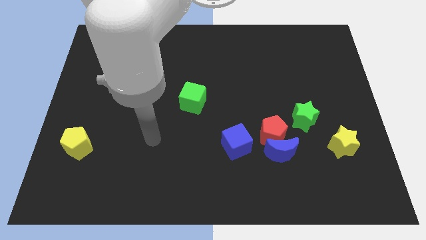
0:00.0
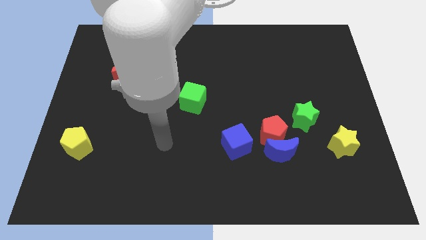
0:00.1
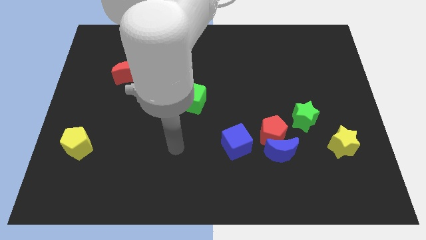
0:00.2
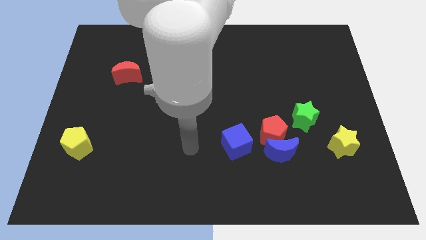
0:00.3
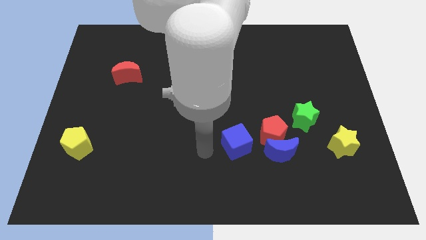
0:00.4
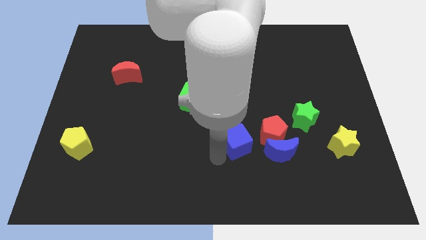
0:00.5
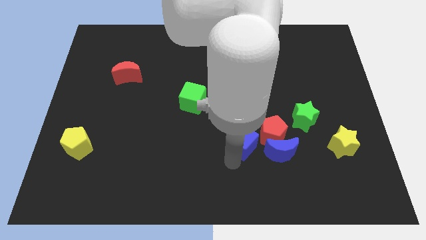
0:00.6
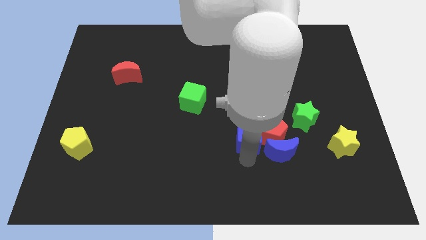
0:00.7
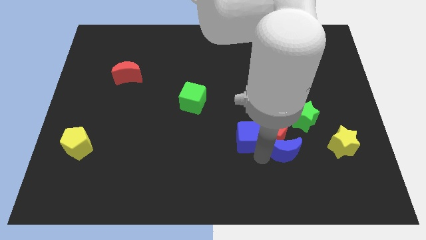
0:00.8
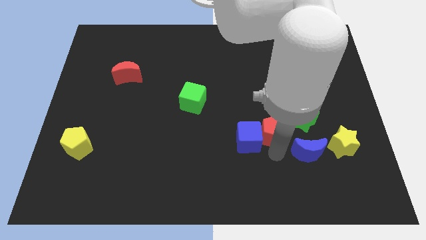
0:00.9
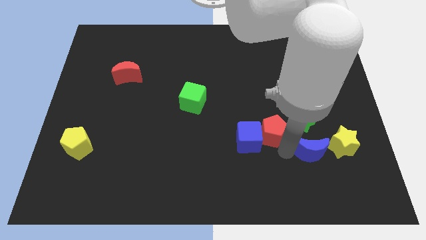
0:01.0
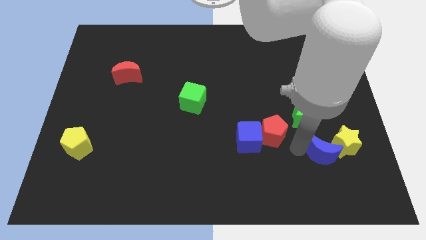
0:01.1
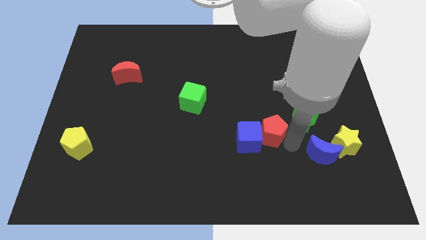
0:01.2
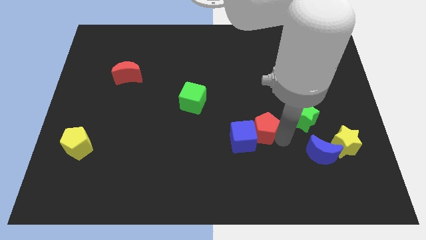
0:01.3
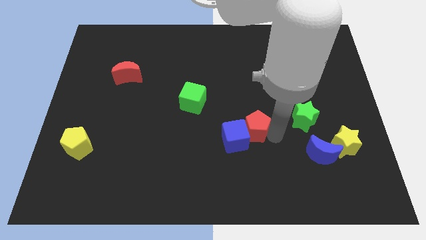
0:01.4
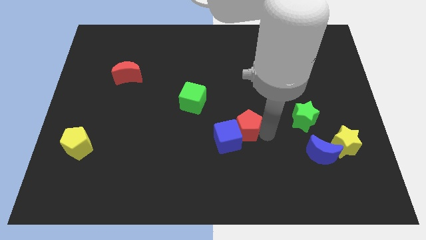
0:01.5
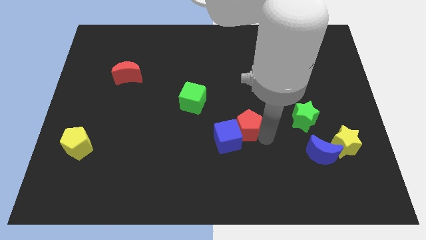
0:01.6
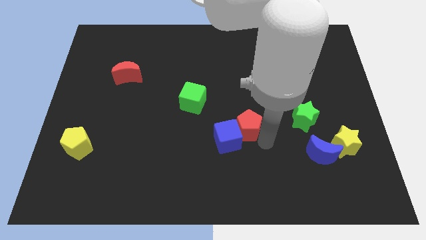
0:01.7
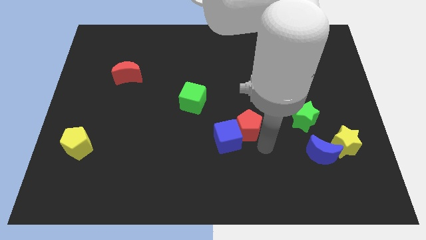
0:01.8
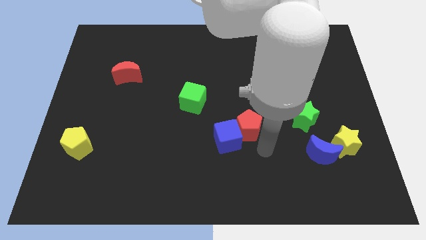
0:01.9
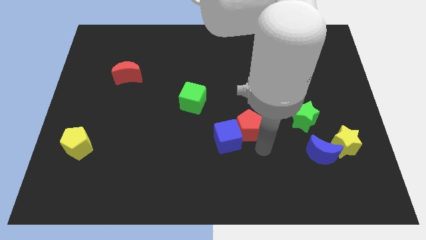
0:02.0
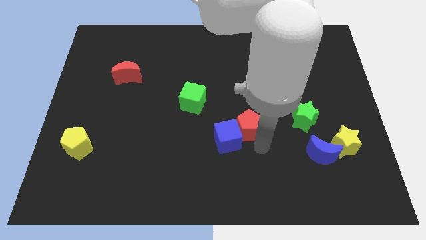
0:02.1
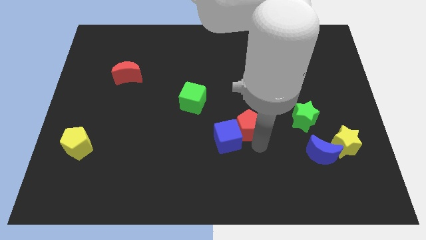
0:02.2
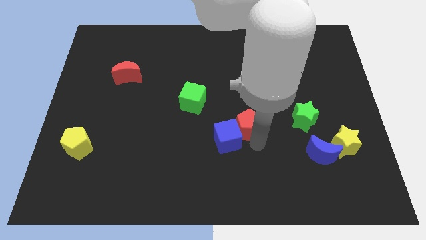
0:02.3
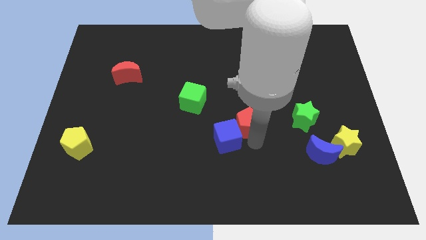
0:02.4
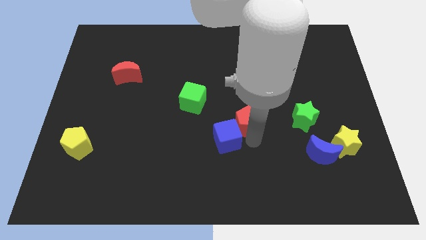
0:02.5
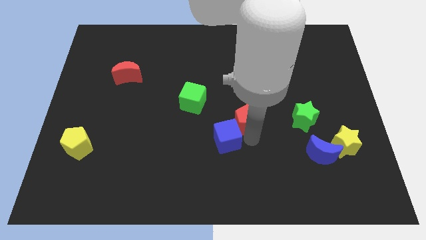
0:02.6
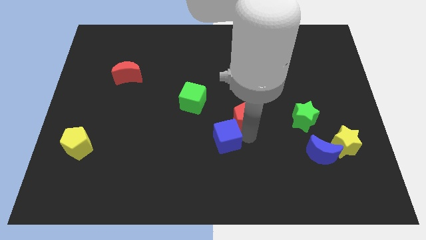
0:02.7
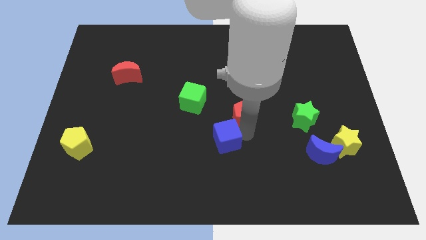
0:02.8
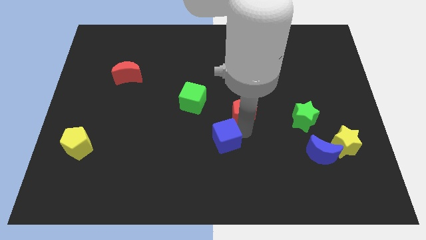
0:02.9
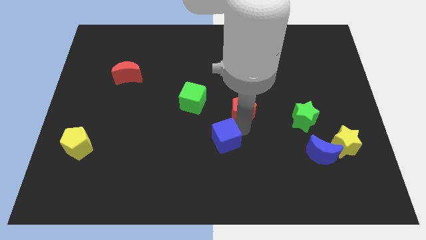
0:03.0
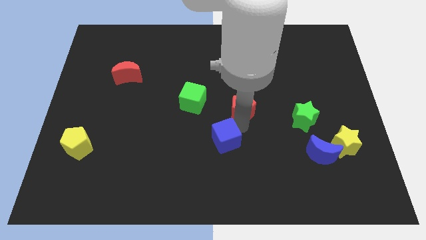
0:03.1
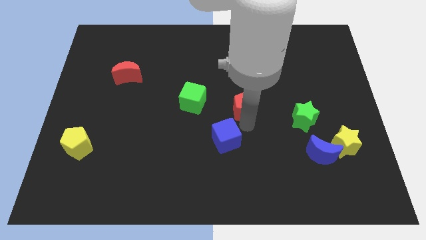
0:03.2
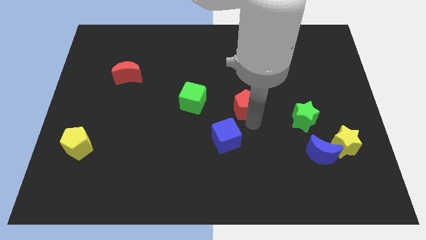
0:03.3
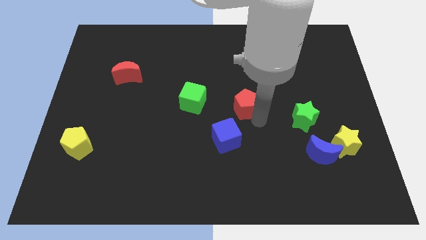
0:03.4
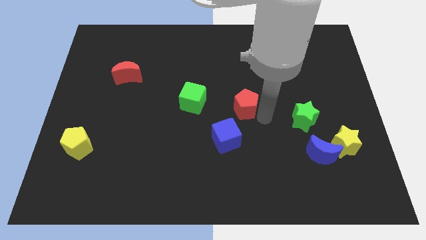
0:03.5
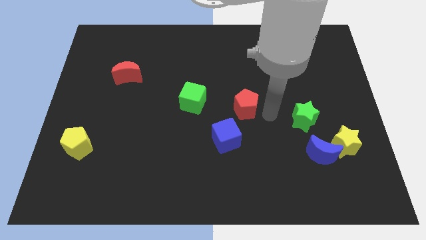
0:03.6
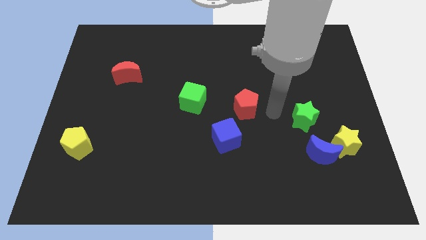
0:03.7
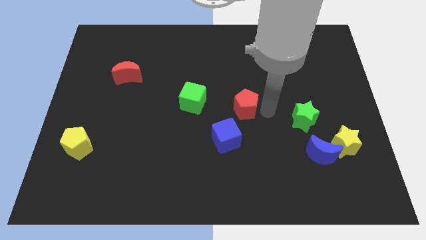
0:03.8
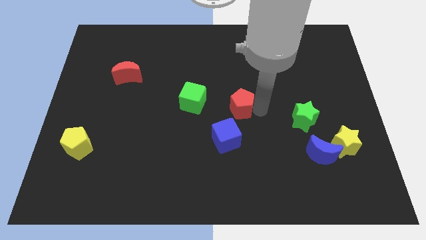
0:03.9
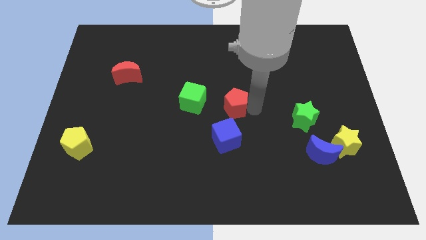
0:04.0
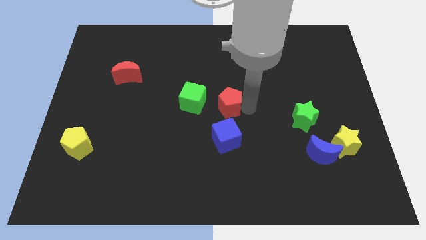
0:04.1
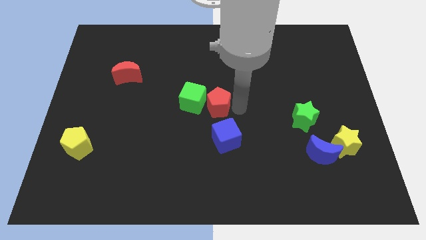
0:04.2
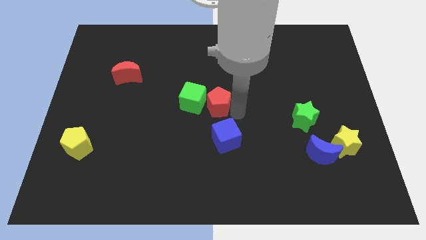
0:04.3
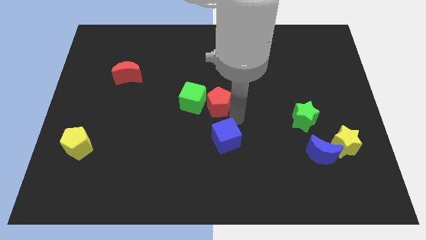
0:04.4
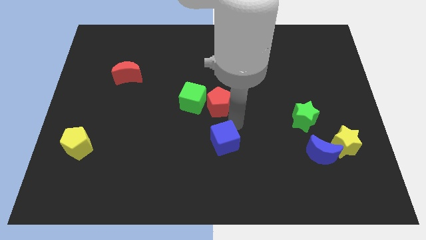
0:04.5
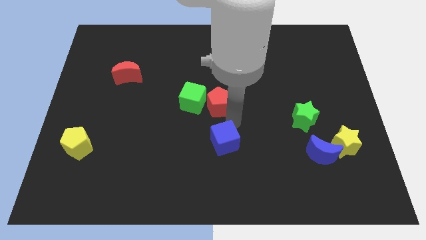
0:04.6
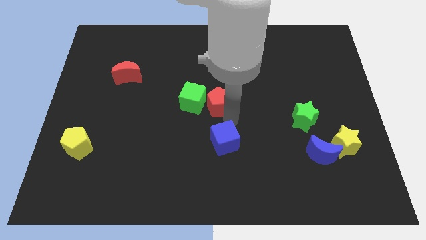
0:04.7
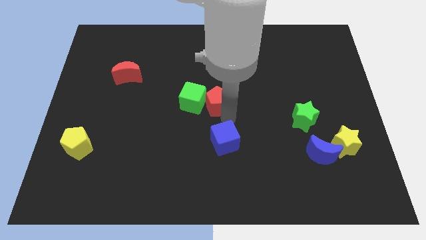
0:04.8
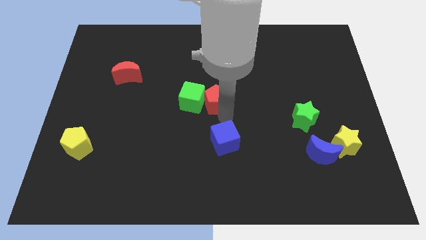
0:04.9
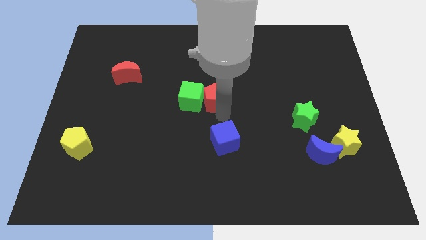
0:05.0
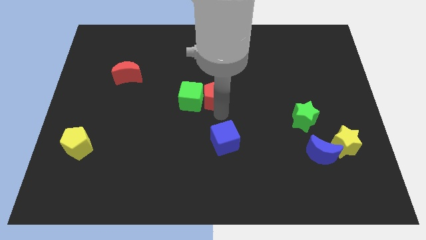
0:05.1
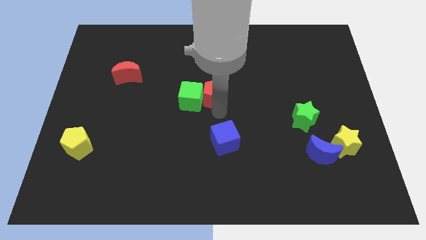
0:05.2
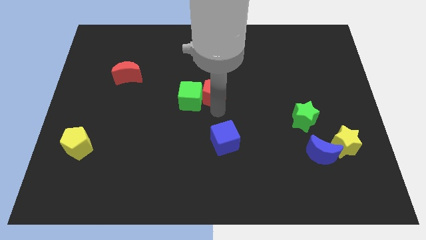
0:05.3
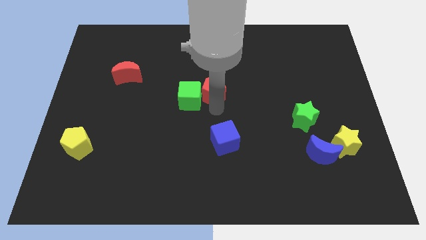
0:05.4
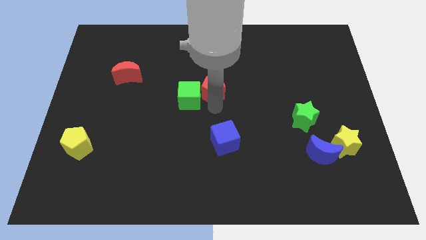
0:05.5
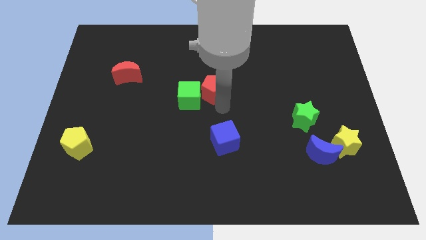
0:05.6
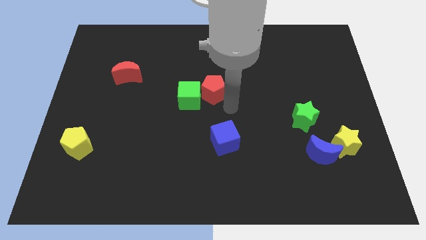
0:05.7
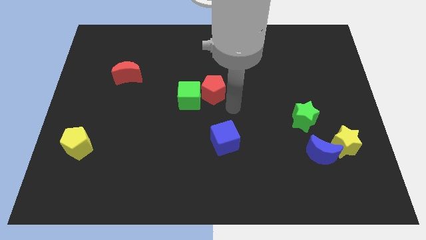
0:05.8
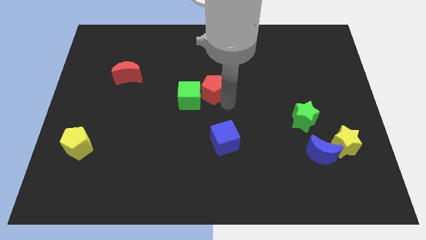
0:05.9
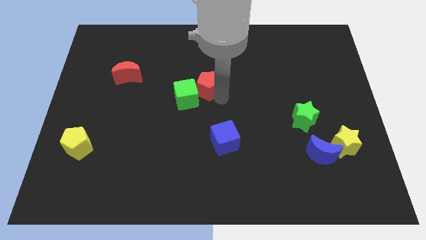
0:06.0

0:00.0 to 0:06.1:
slide the red pentagon diagonally up and left

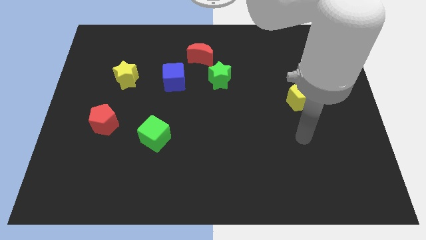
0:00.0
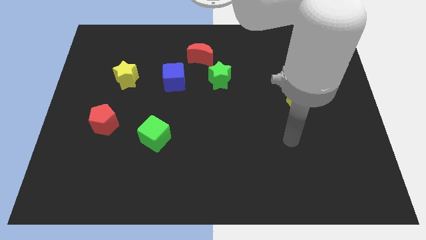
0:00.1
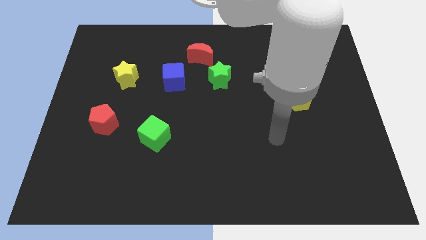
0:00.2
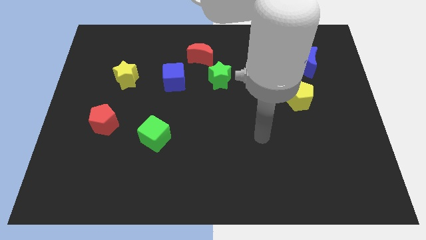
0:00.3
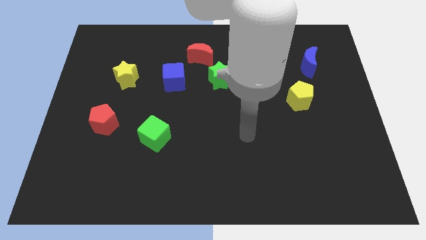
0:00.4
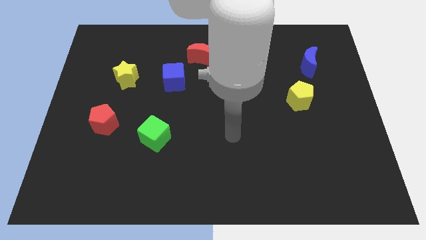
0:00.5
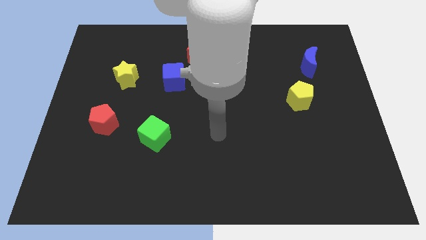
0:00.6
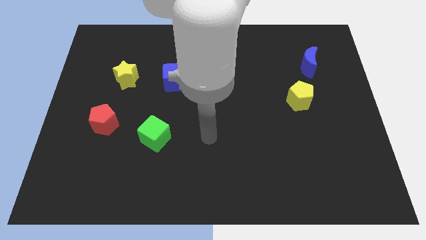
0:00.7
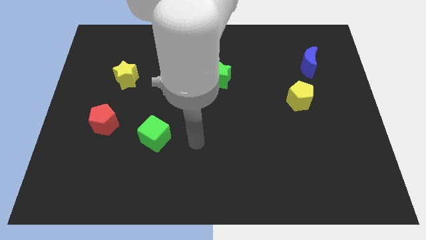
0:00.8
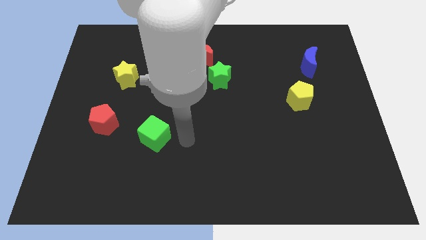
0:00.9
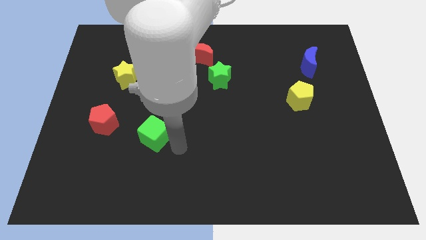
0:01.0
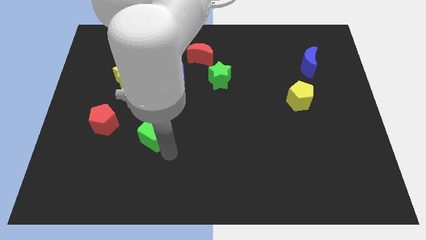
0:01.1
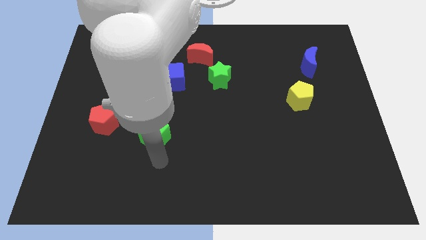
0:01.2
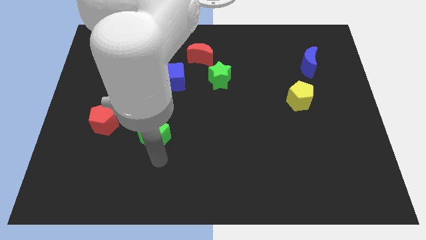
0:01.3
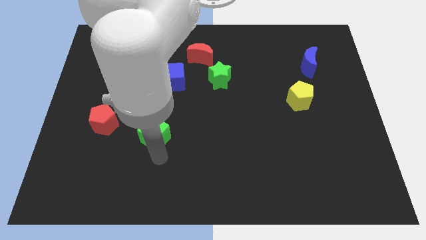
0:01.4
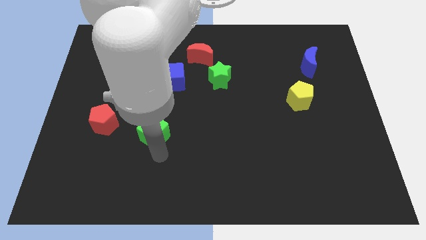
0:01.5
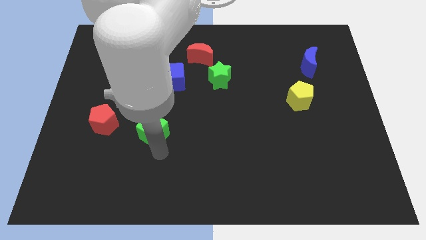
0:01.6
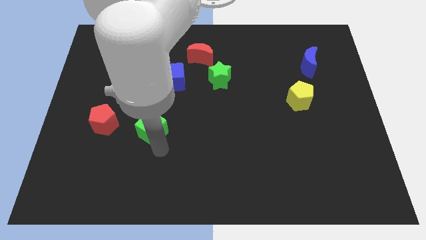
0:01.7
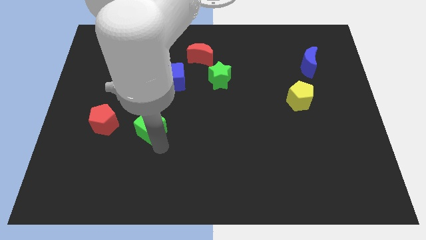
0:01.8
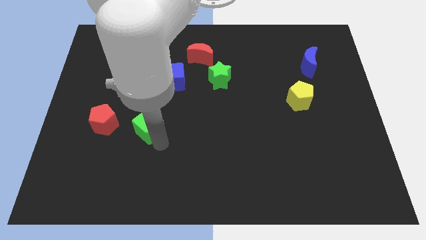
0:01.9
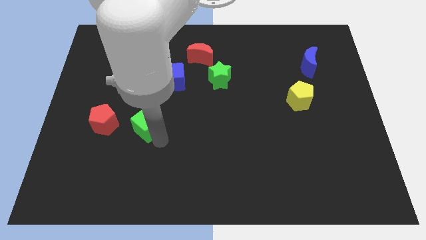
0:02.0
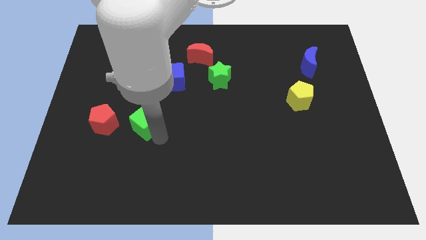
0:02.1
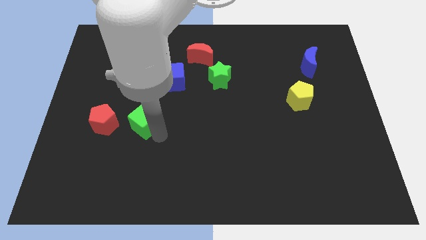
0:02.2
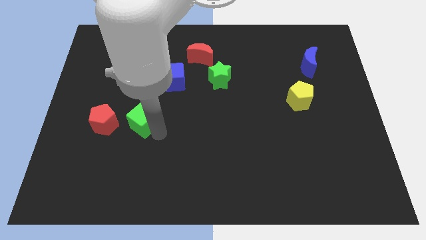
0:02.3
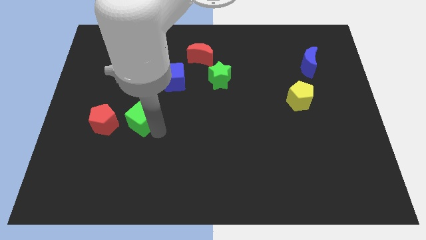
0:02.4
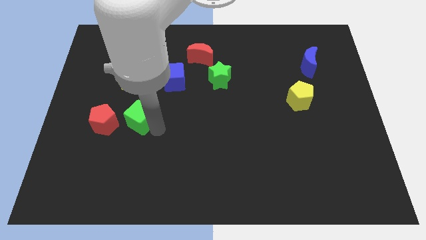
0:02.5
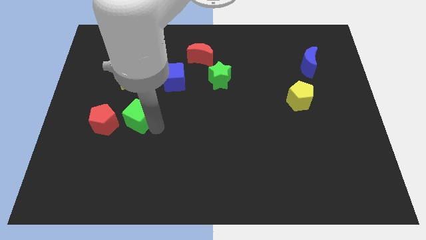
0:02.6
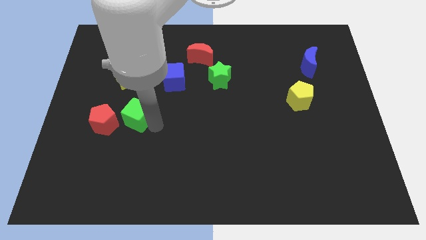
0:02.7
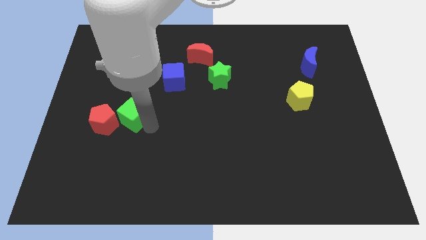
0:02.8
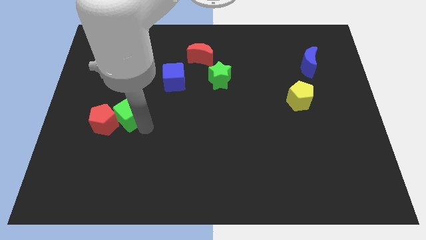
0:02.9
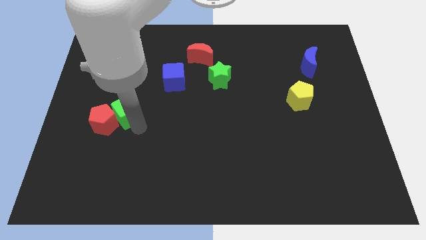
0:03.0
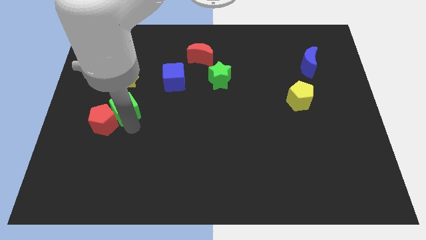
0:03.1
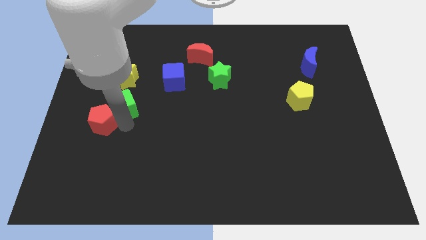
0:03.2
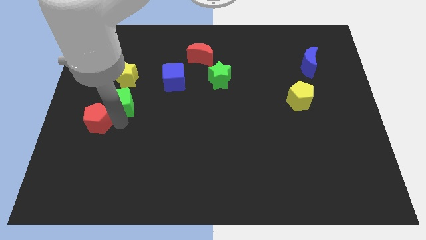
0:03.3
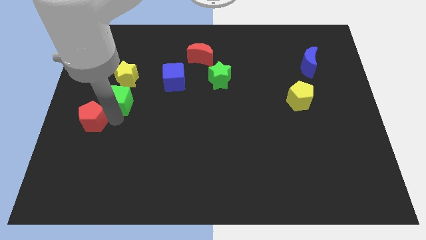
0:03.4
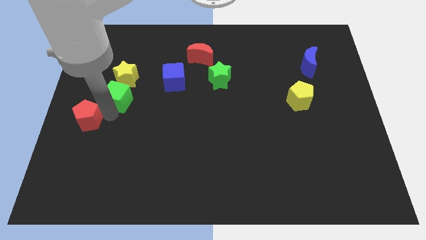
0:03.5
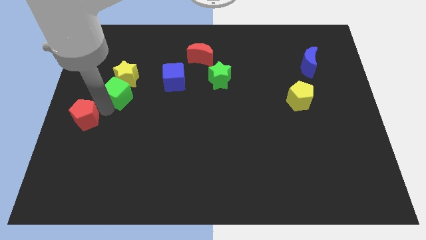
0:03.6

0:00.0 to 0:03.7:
move the green cube a little bit up
